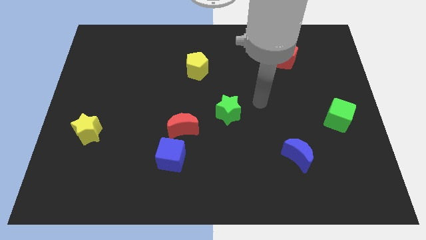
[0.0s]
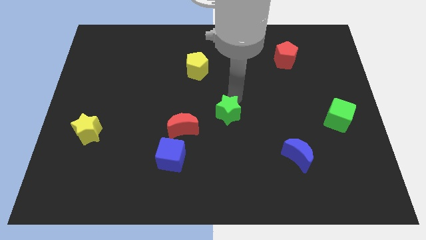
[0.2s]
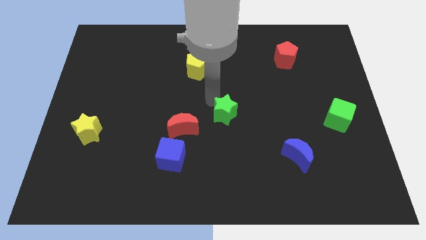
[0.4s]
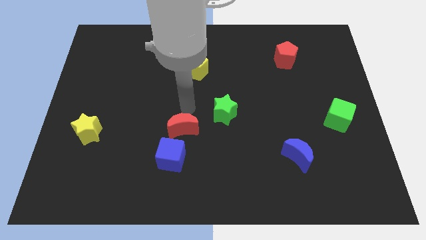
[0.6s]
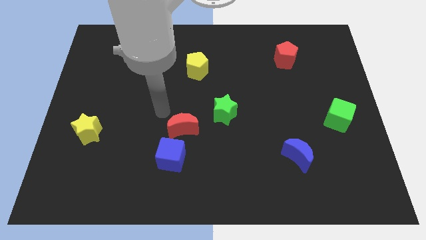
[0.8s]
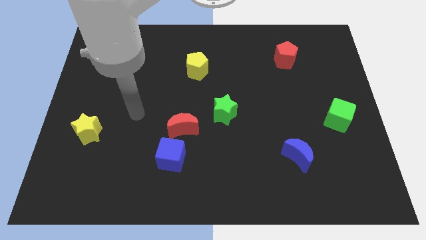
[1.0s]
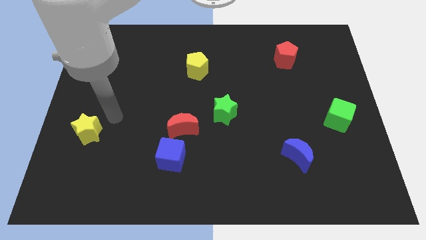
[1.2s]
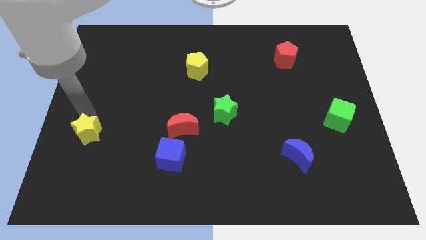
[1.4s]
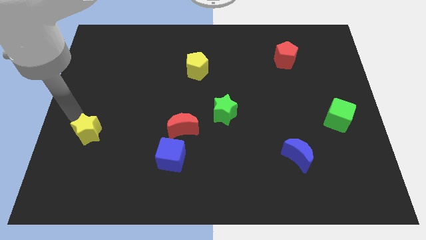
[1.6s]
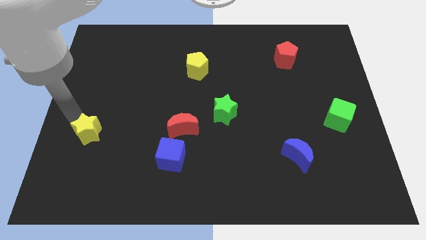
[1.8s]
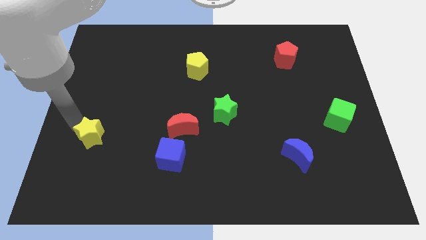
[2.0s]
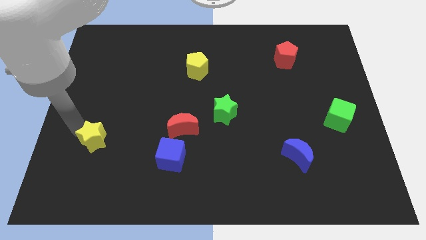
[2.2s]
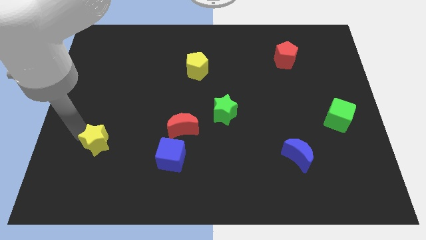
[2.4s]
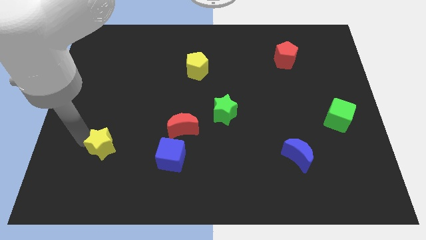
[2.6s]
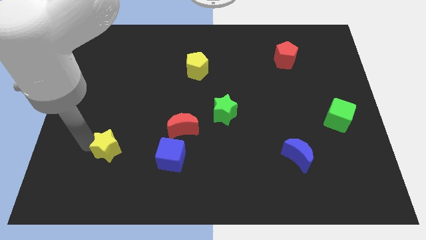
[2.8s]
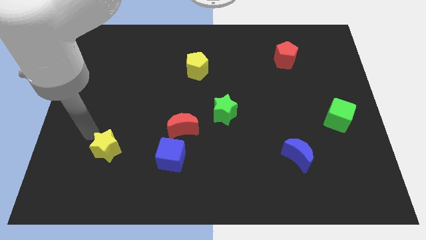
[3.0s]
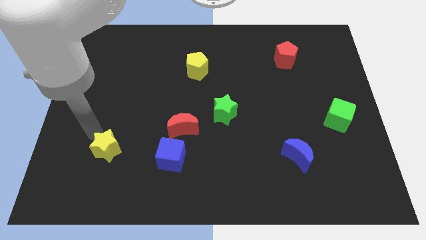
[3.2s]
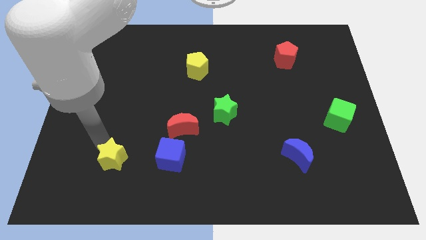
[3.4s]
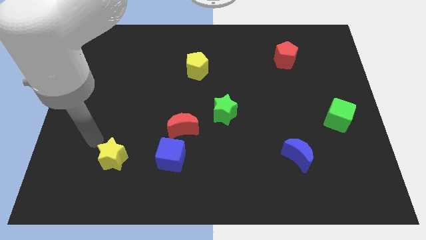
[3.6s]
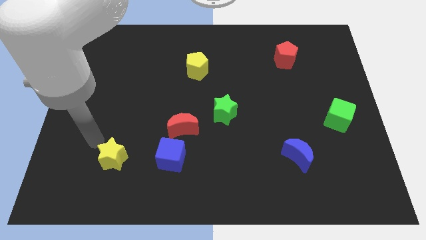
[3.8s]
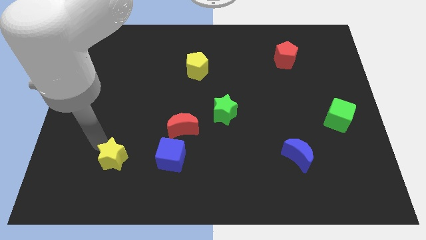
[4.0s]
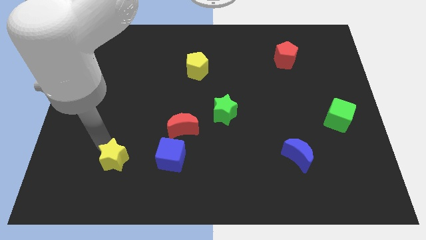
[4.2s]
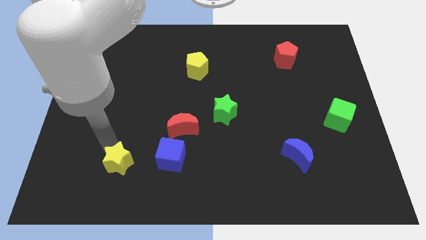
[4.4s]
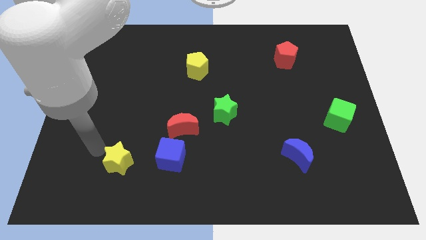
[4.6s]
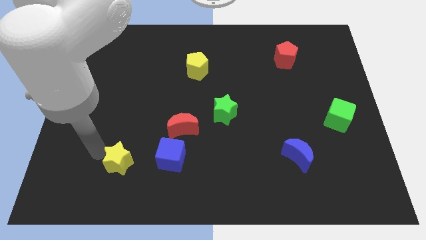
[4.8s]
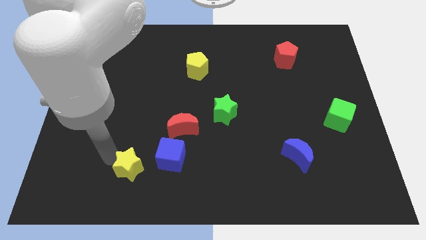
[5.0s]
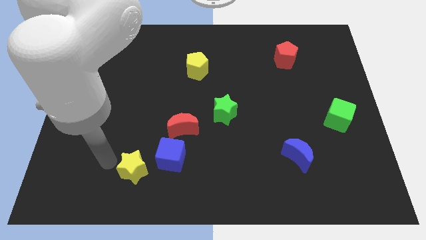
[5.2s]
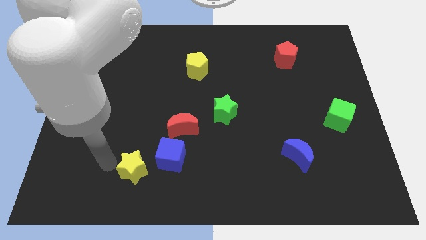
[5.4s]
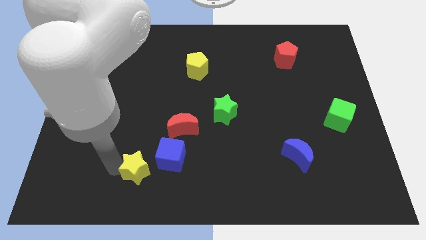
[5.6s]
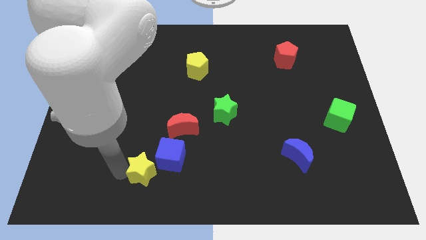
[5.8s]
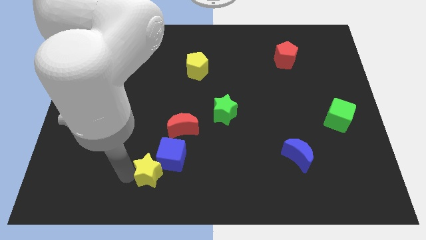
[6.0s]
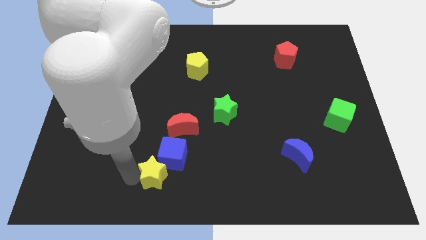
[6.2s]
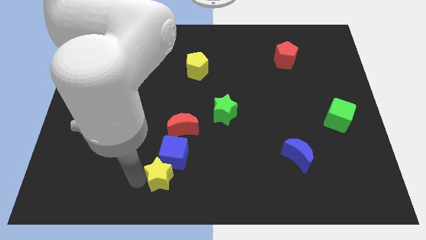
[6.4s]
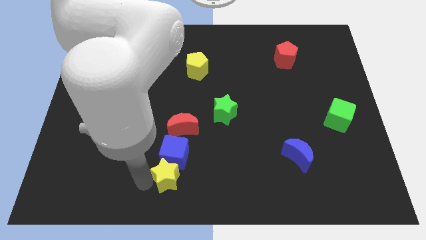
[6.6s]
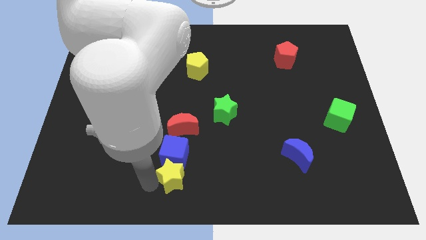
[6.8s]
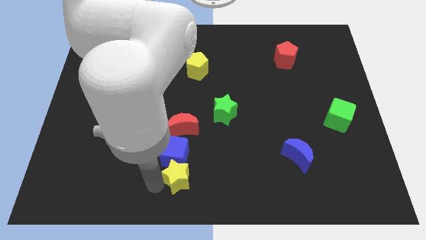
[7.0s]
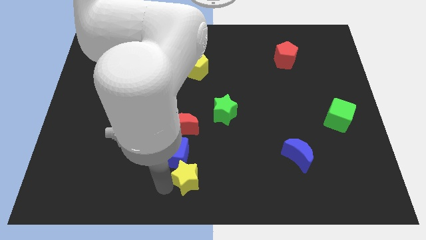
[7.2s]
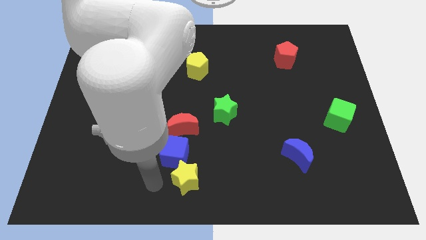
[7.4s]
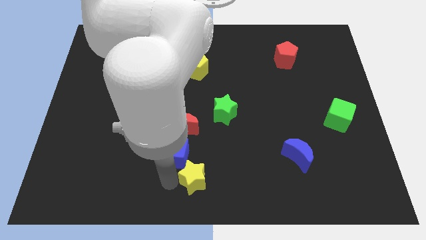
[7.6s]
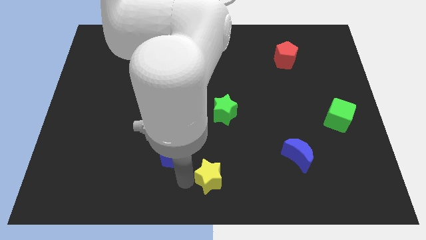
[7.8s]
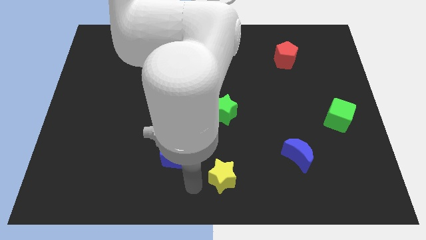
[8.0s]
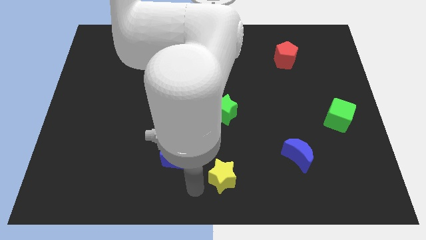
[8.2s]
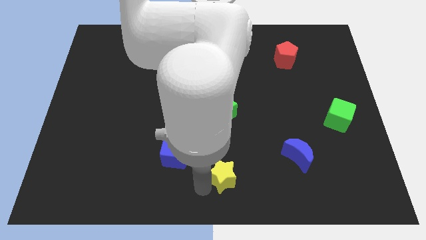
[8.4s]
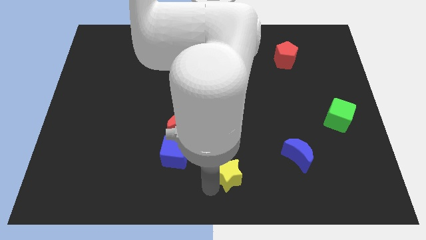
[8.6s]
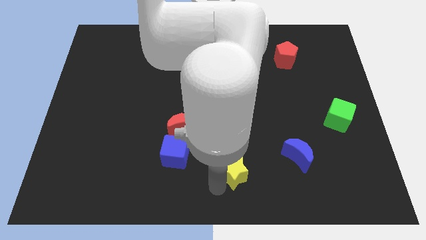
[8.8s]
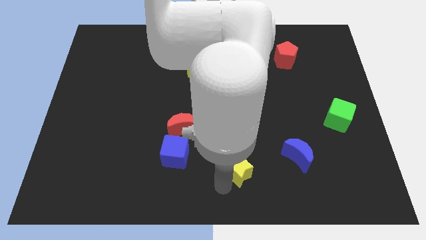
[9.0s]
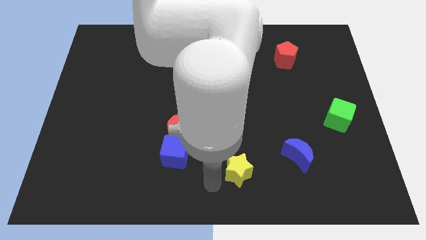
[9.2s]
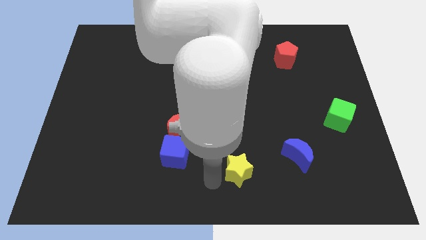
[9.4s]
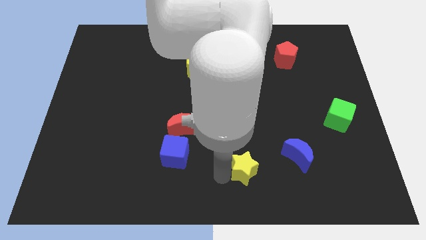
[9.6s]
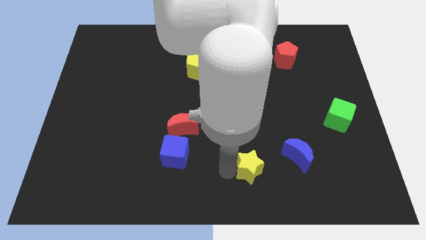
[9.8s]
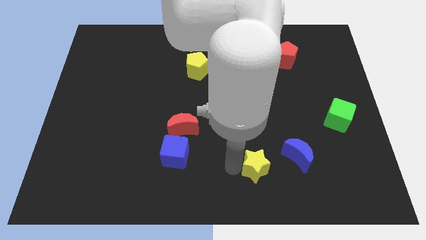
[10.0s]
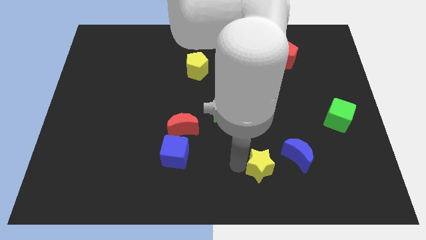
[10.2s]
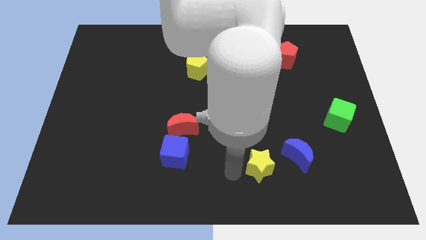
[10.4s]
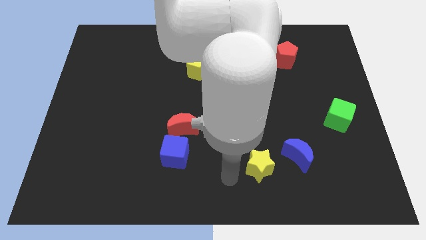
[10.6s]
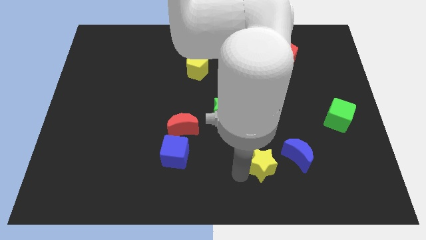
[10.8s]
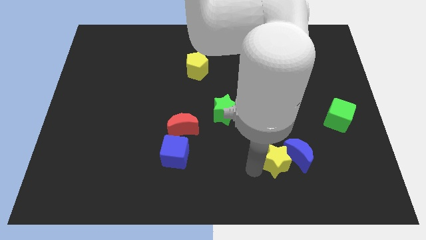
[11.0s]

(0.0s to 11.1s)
put the yellow star towards the blue moon

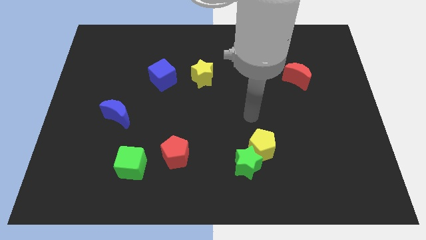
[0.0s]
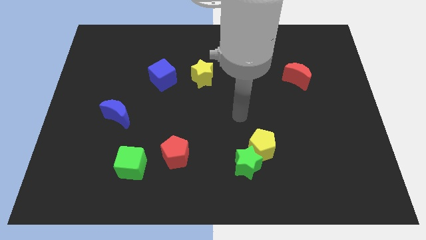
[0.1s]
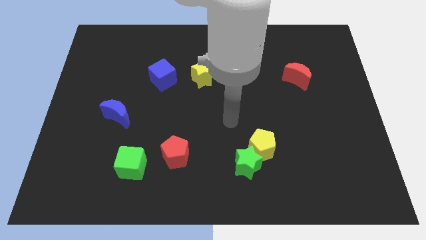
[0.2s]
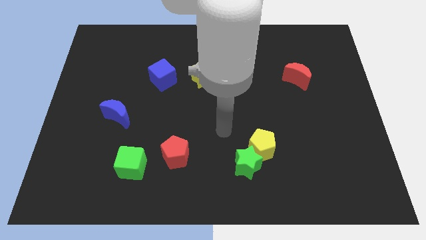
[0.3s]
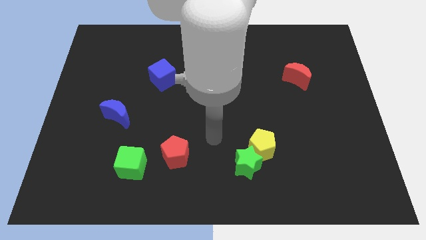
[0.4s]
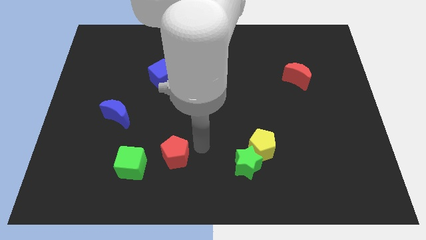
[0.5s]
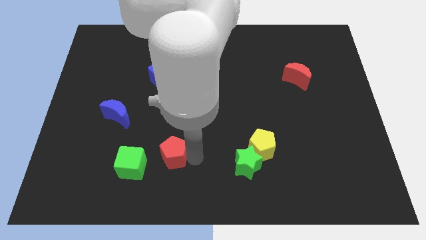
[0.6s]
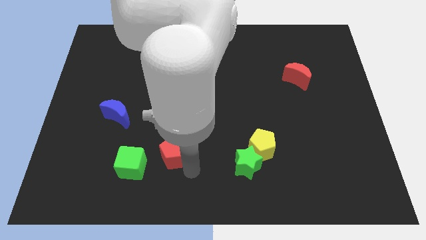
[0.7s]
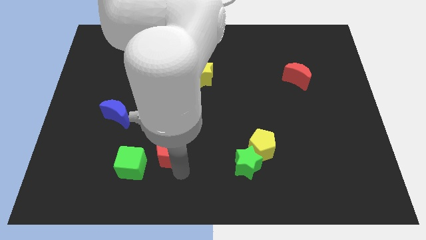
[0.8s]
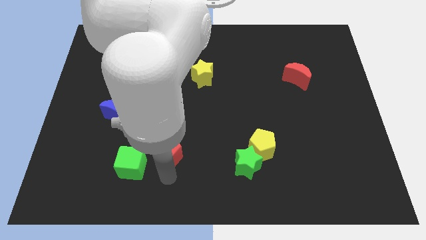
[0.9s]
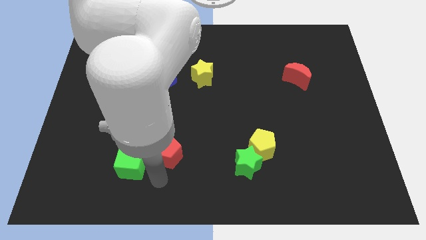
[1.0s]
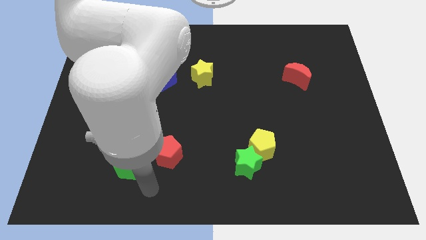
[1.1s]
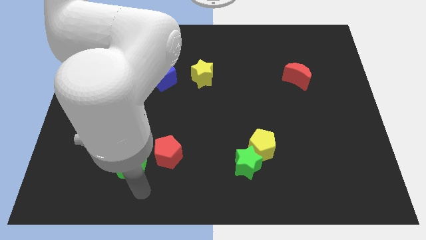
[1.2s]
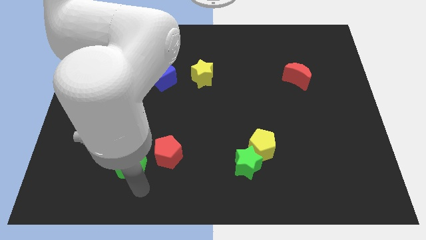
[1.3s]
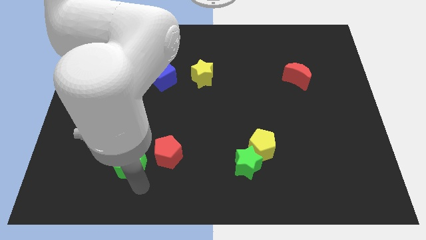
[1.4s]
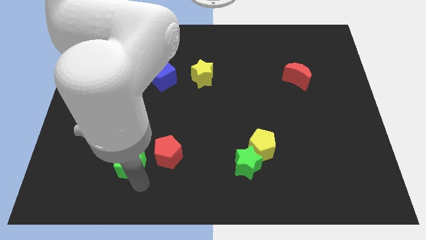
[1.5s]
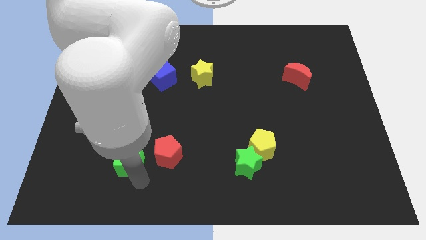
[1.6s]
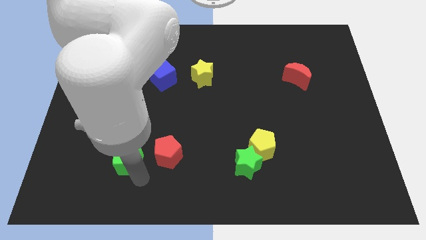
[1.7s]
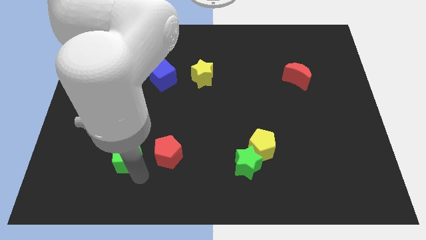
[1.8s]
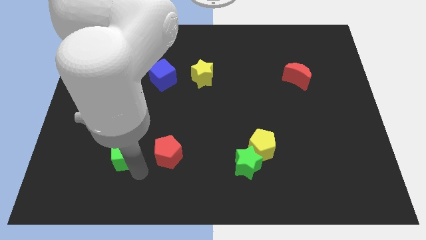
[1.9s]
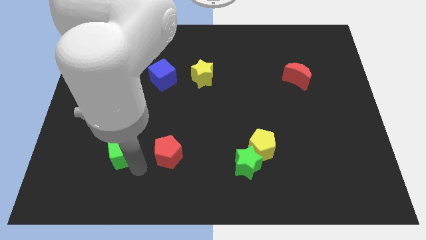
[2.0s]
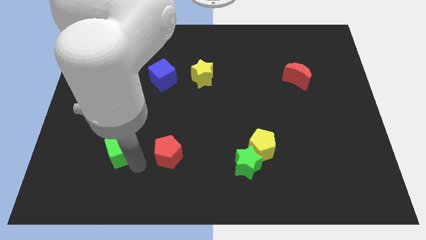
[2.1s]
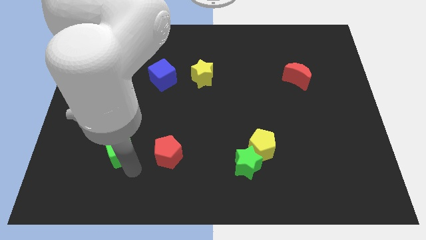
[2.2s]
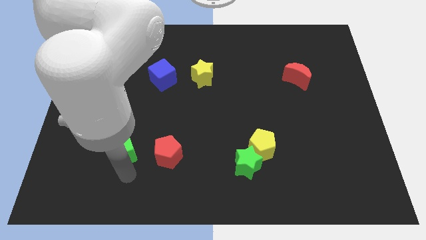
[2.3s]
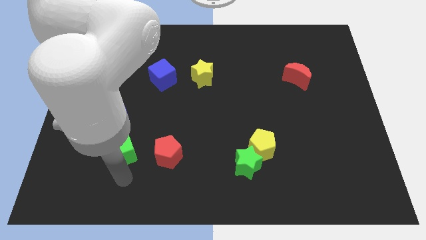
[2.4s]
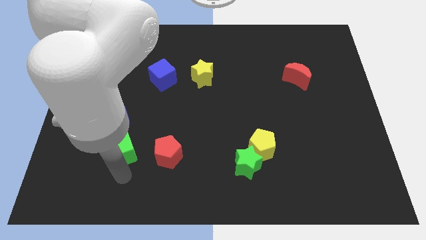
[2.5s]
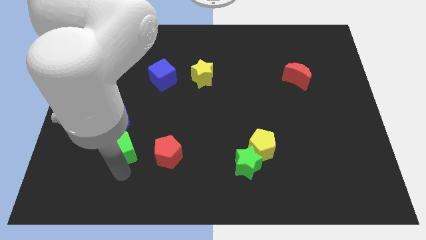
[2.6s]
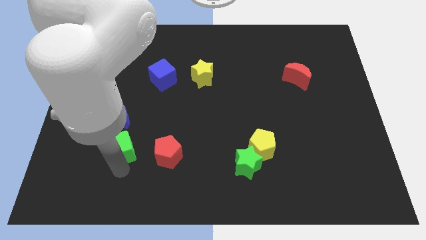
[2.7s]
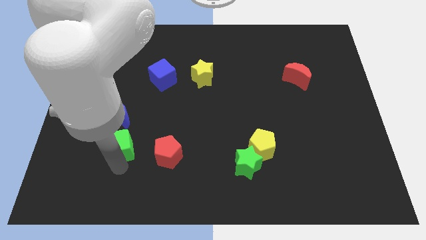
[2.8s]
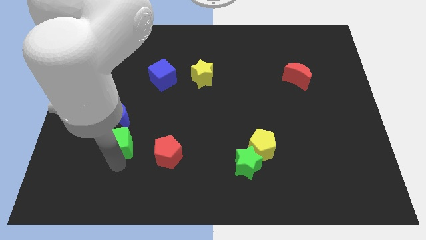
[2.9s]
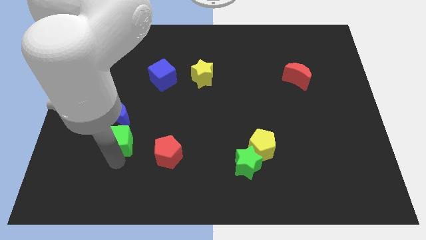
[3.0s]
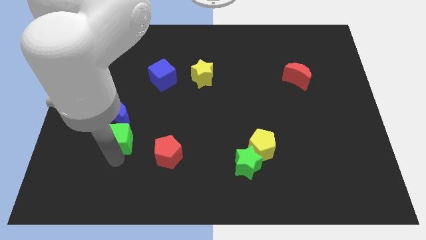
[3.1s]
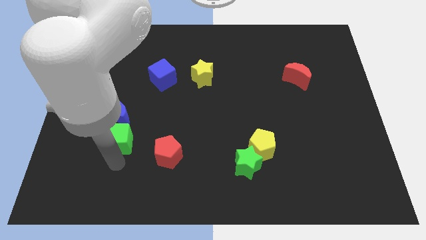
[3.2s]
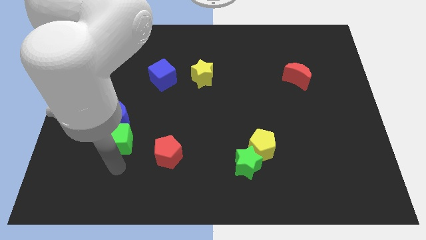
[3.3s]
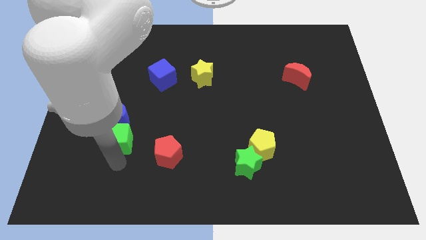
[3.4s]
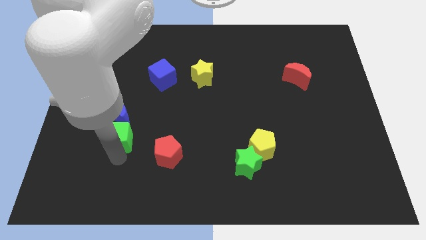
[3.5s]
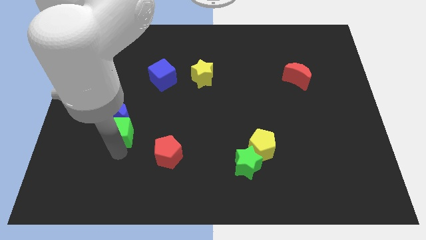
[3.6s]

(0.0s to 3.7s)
move the green cube close to the blue moon
